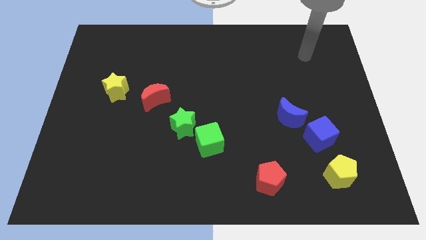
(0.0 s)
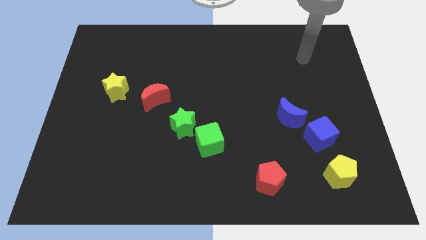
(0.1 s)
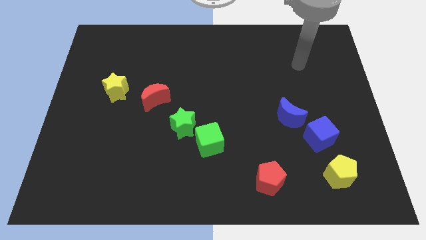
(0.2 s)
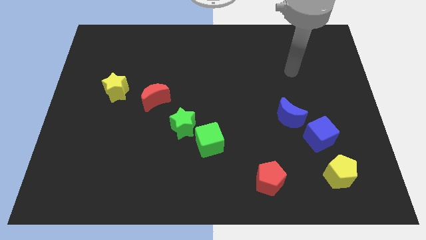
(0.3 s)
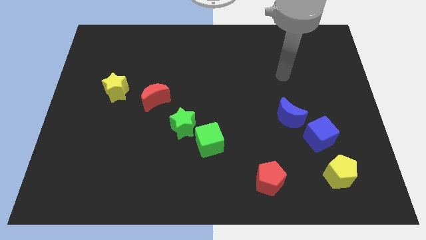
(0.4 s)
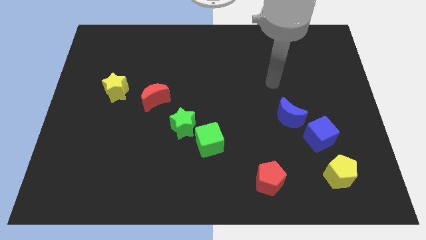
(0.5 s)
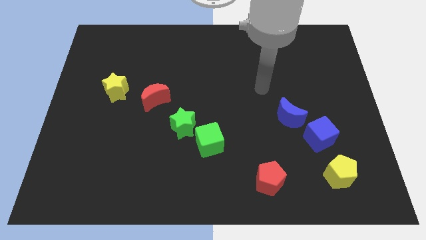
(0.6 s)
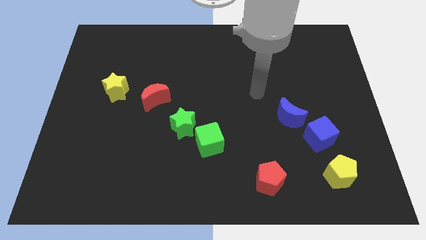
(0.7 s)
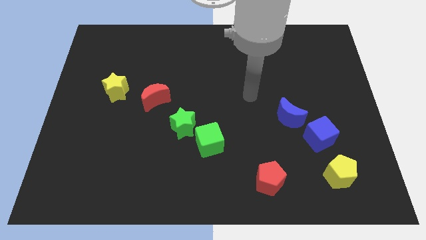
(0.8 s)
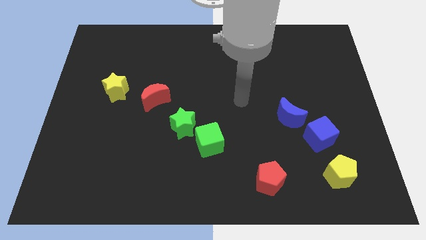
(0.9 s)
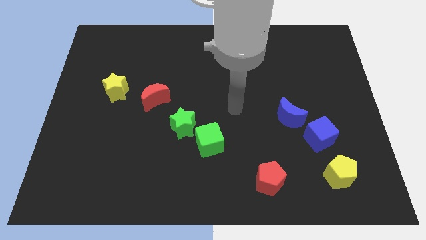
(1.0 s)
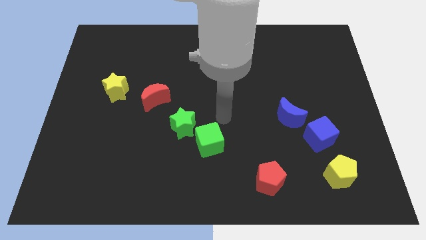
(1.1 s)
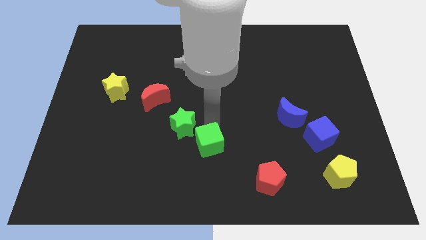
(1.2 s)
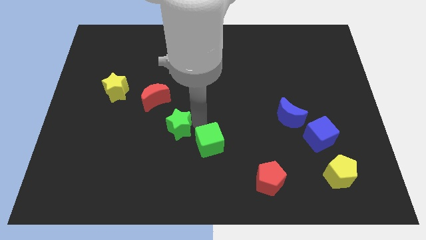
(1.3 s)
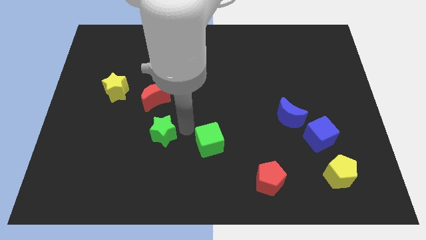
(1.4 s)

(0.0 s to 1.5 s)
pull the green cube apart from the green star

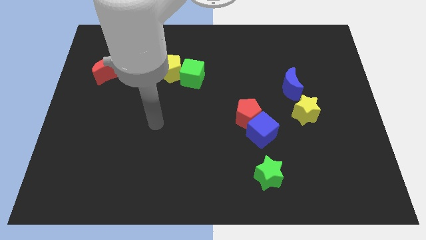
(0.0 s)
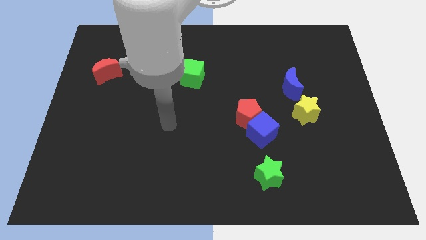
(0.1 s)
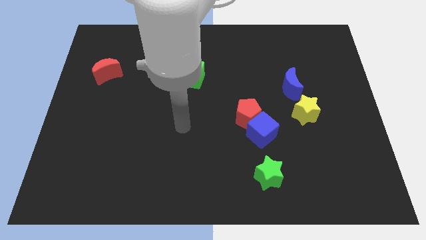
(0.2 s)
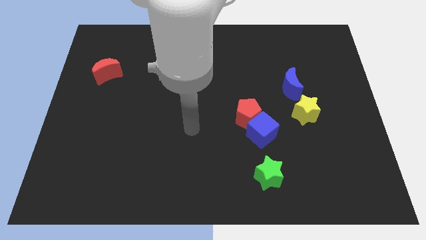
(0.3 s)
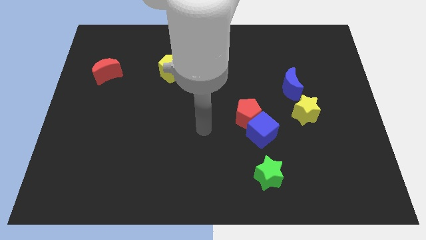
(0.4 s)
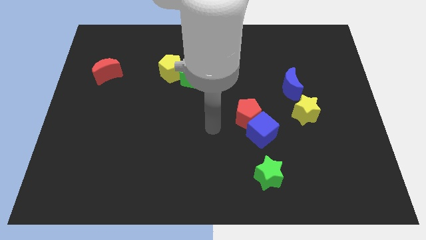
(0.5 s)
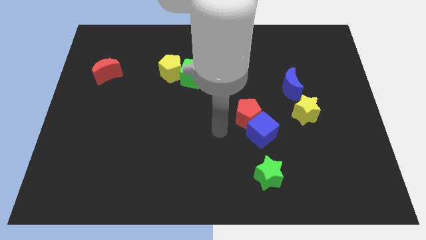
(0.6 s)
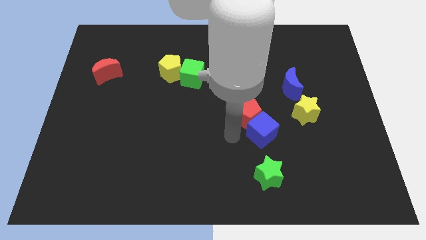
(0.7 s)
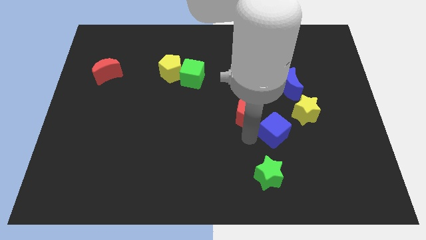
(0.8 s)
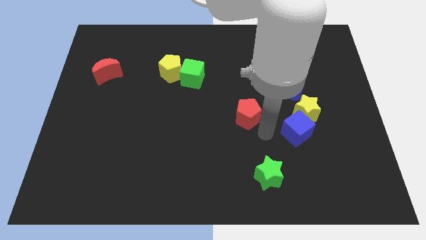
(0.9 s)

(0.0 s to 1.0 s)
move the red pentagon away from the blue cube

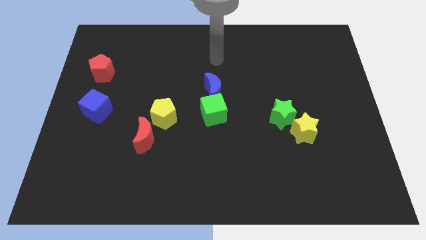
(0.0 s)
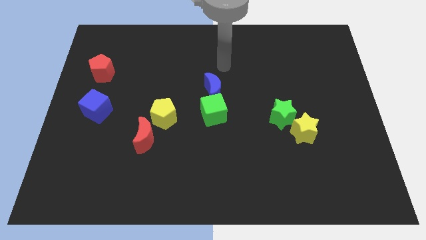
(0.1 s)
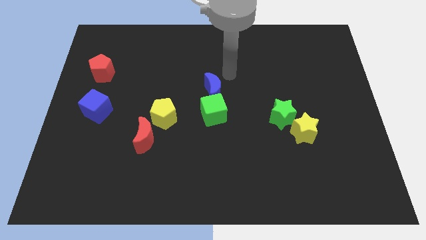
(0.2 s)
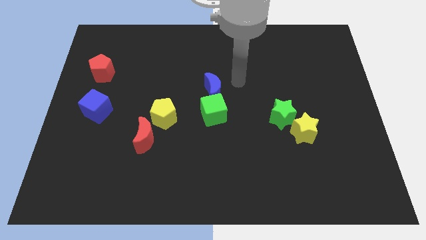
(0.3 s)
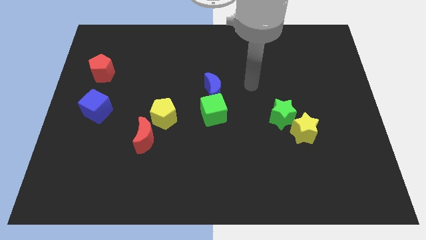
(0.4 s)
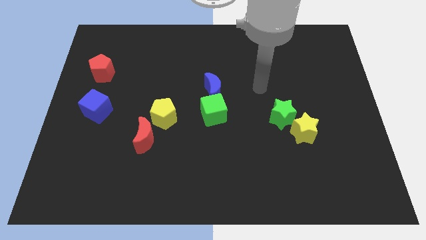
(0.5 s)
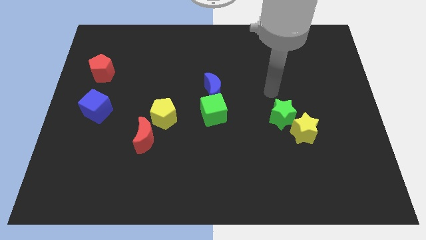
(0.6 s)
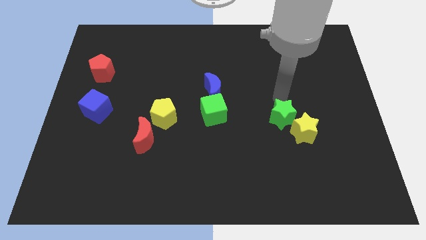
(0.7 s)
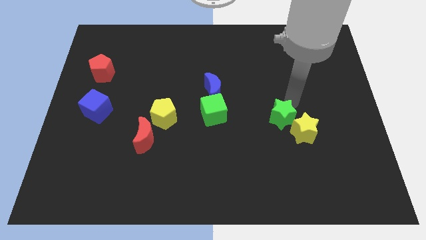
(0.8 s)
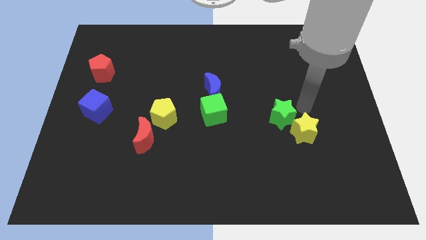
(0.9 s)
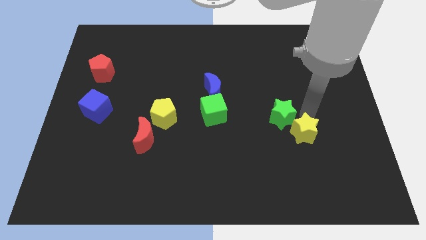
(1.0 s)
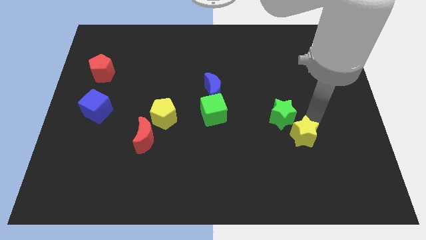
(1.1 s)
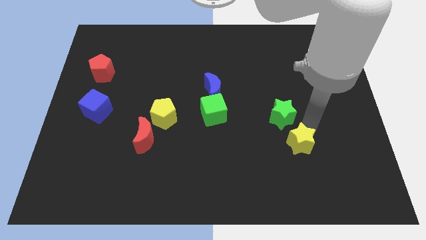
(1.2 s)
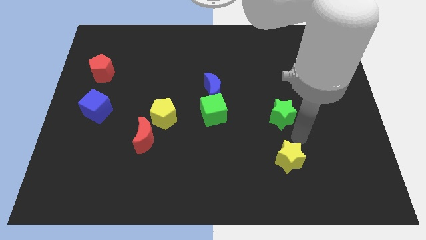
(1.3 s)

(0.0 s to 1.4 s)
separate the green star from the yellow star

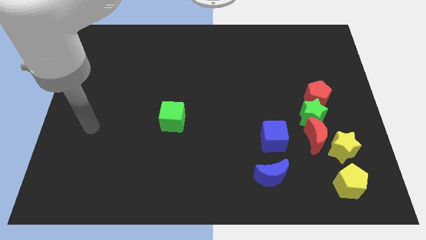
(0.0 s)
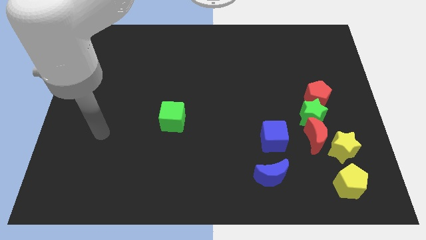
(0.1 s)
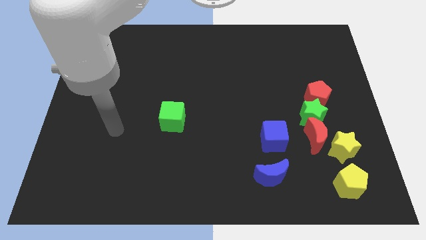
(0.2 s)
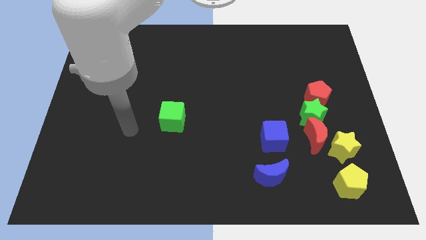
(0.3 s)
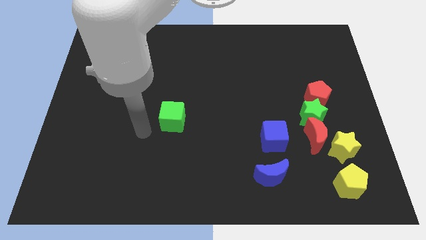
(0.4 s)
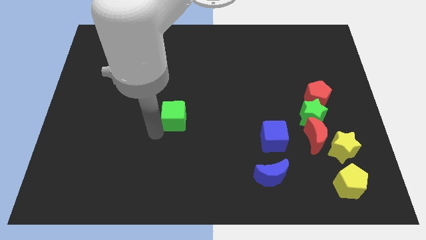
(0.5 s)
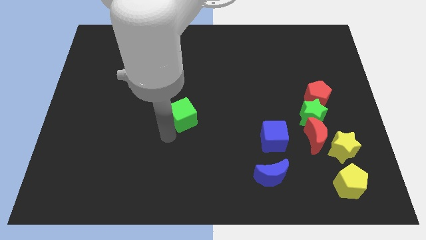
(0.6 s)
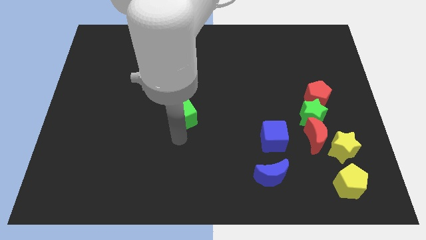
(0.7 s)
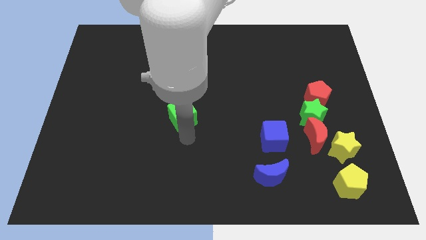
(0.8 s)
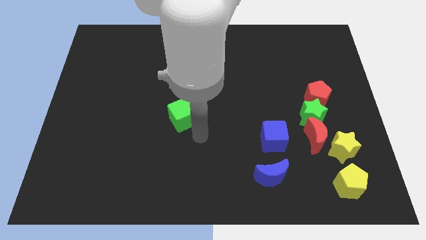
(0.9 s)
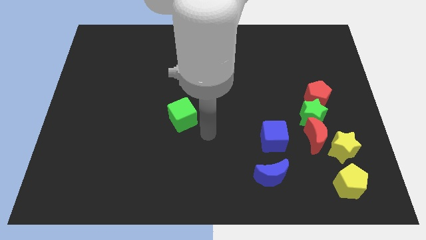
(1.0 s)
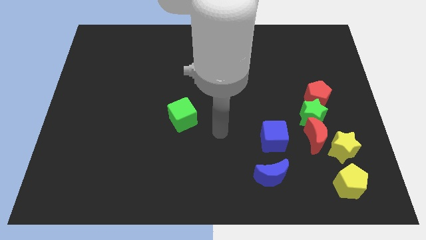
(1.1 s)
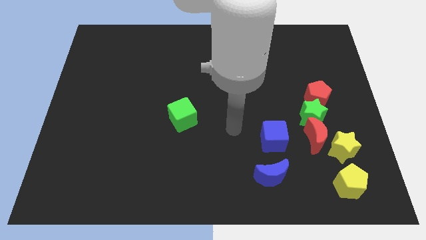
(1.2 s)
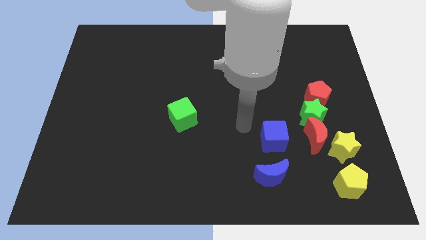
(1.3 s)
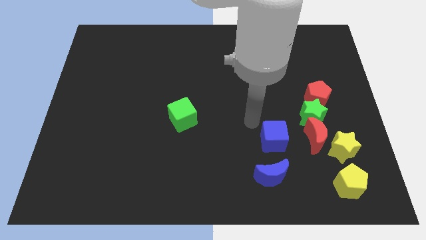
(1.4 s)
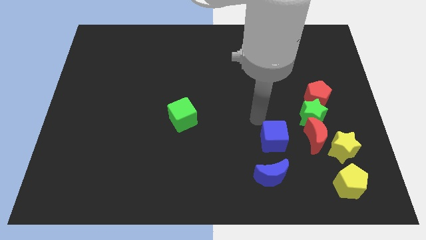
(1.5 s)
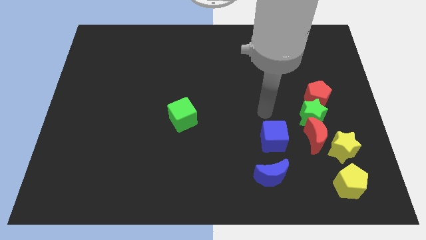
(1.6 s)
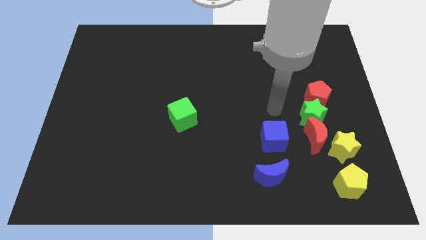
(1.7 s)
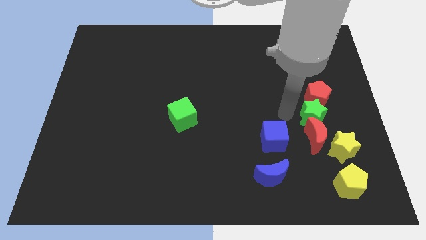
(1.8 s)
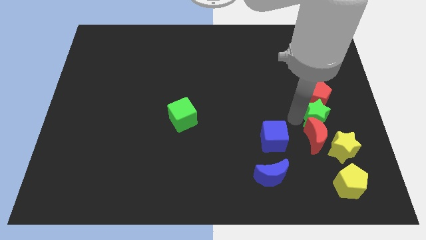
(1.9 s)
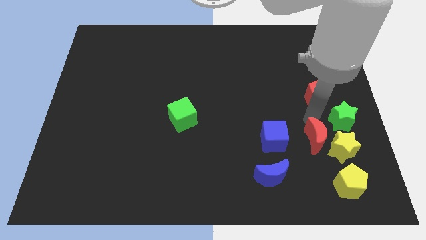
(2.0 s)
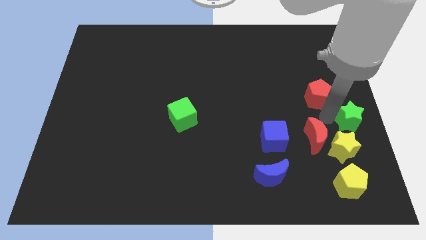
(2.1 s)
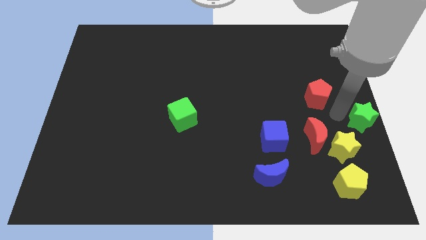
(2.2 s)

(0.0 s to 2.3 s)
pull the red pentagon apart from the green star

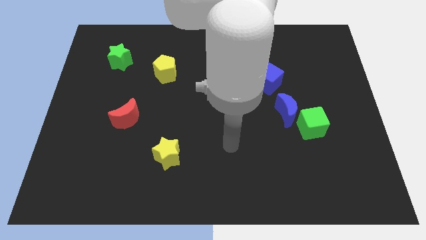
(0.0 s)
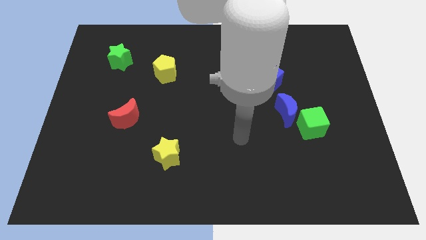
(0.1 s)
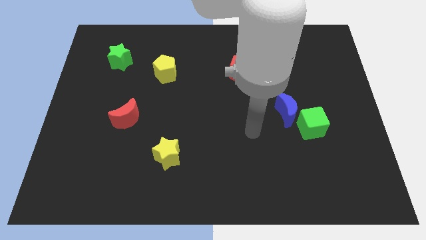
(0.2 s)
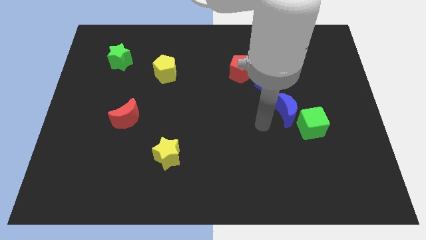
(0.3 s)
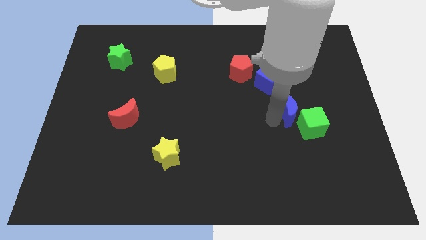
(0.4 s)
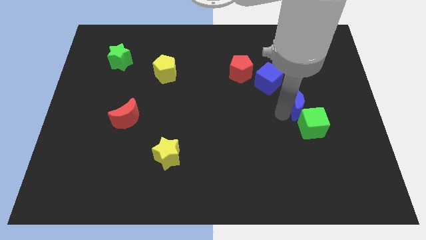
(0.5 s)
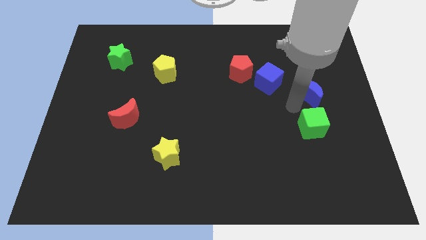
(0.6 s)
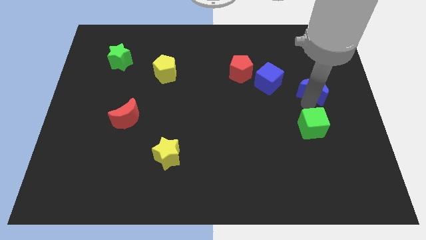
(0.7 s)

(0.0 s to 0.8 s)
move the green cube away from the blue moon

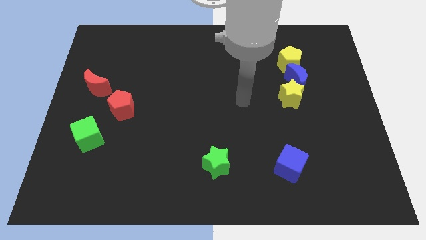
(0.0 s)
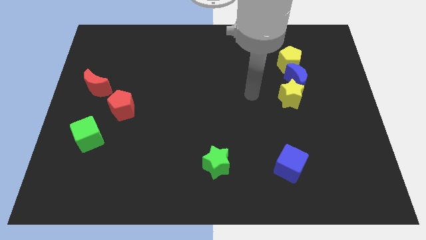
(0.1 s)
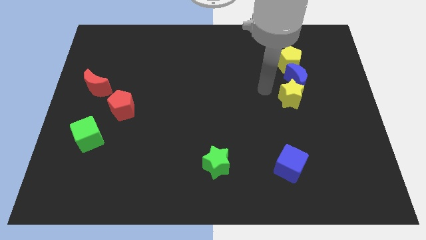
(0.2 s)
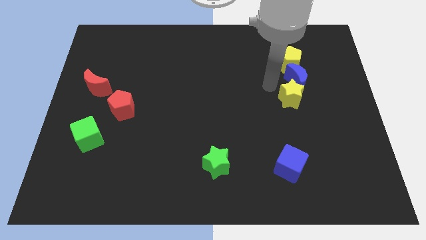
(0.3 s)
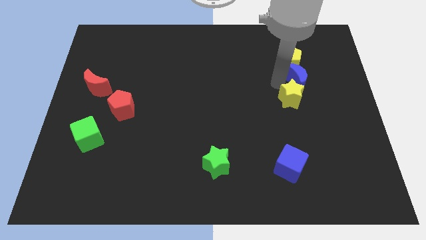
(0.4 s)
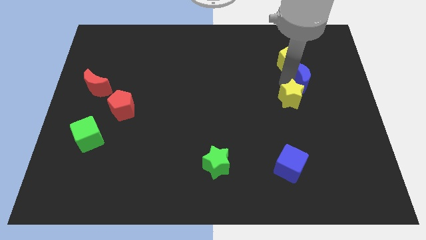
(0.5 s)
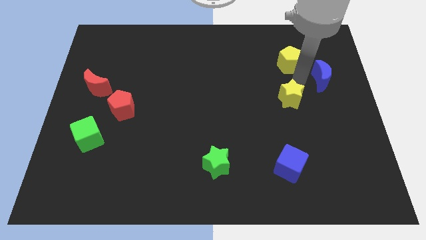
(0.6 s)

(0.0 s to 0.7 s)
move the yellow star away from the blue moon

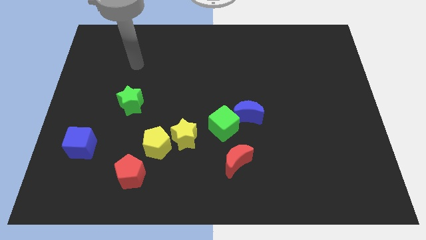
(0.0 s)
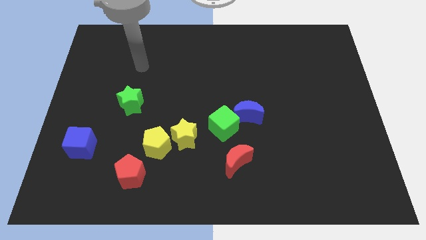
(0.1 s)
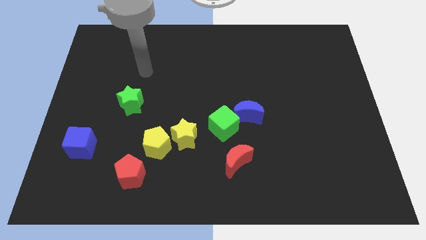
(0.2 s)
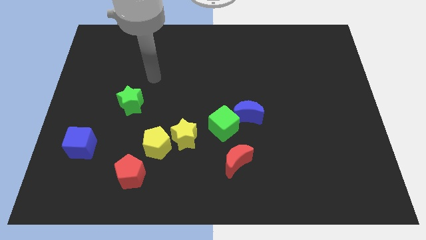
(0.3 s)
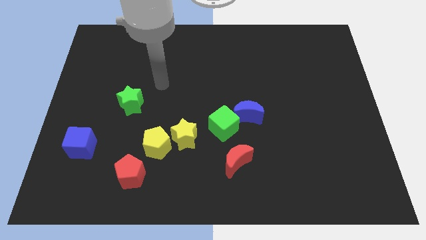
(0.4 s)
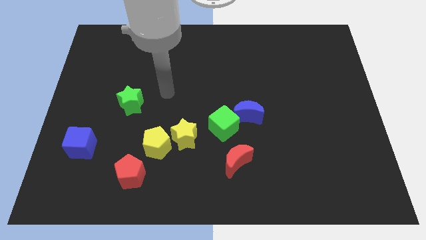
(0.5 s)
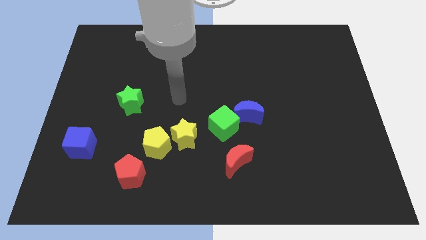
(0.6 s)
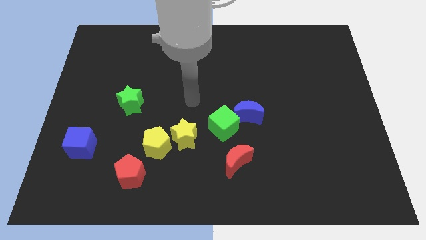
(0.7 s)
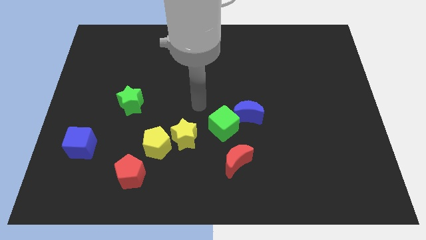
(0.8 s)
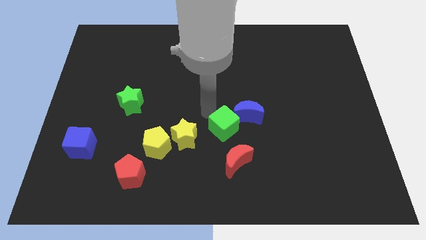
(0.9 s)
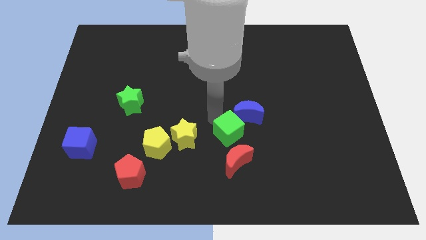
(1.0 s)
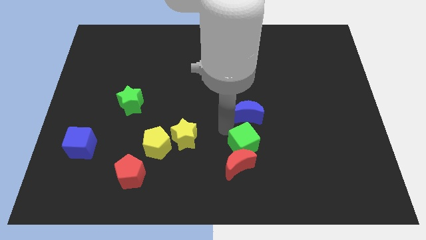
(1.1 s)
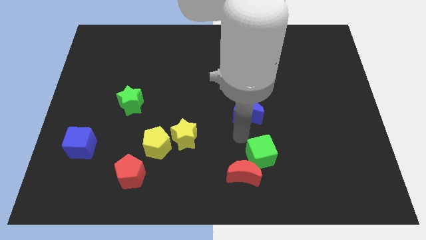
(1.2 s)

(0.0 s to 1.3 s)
move the blue moon away from the green cube

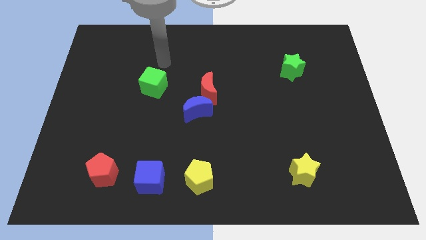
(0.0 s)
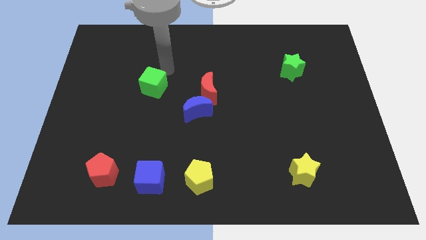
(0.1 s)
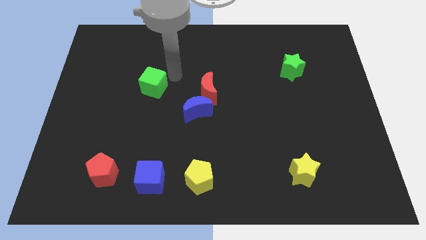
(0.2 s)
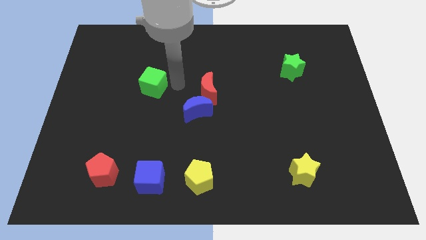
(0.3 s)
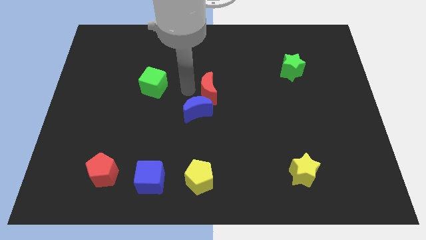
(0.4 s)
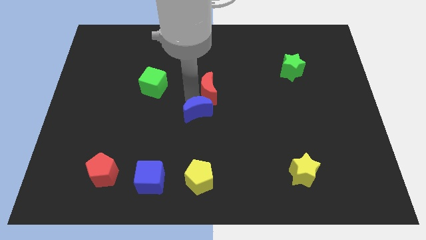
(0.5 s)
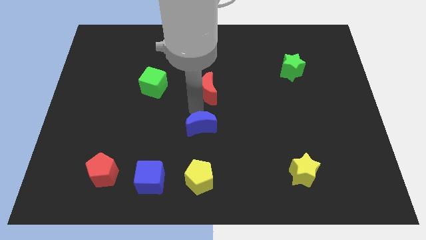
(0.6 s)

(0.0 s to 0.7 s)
pull the red moon apart from the blue moon
